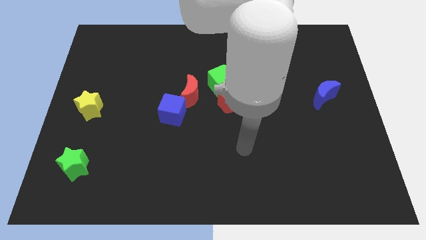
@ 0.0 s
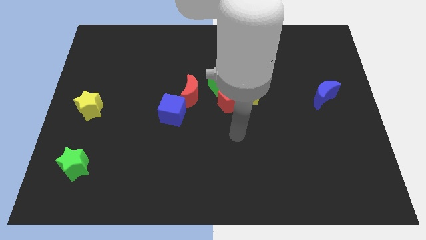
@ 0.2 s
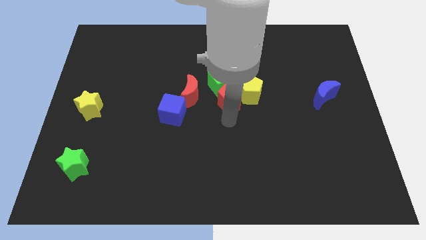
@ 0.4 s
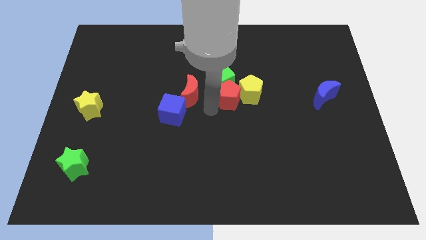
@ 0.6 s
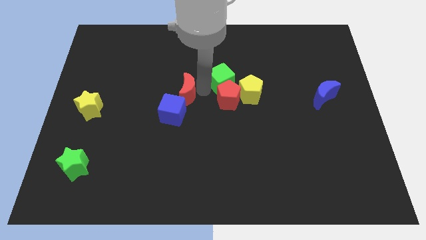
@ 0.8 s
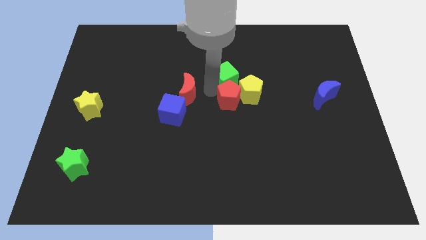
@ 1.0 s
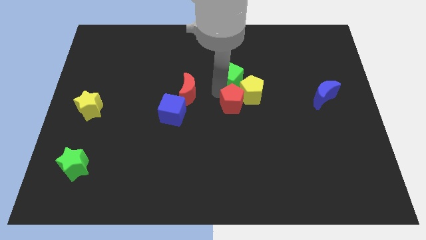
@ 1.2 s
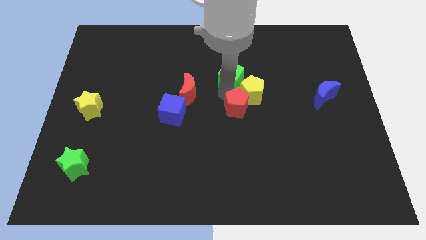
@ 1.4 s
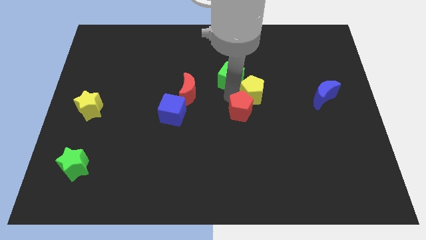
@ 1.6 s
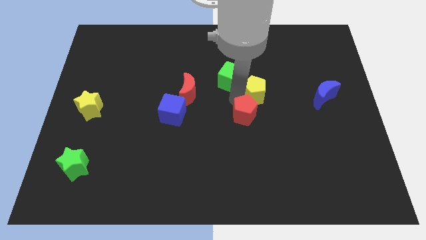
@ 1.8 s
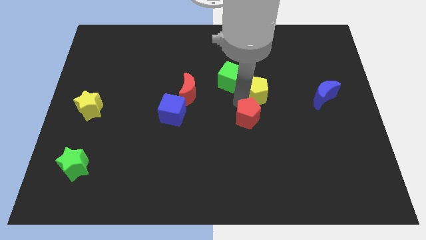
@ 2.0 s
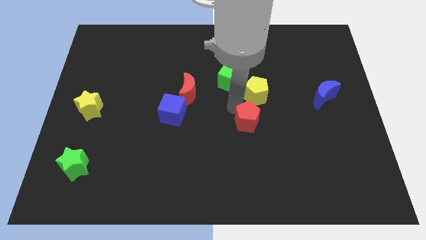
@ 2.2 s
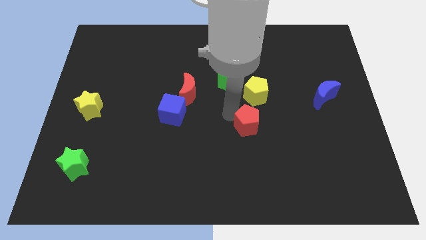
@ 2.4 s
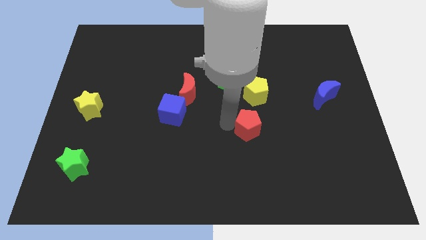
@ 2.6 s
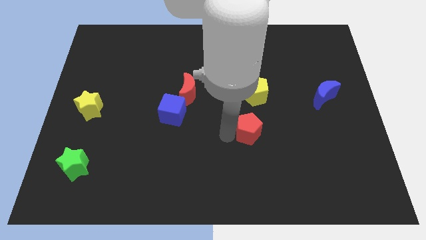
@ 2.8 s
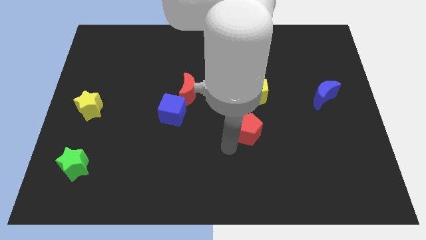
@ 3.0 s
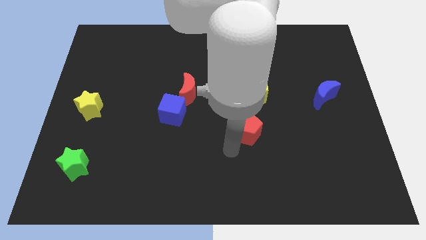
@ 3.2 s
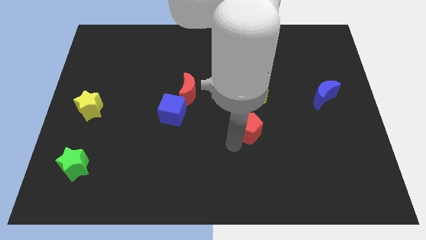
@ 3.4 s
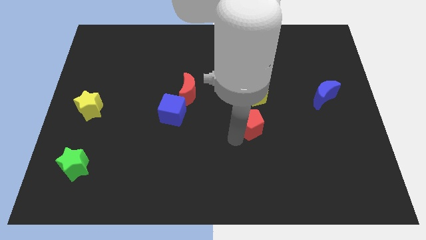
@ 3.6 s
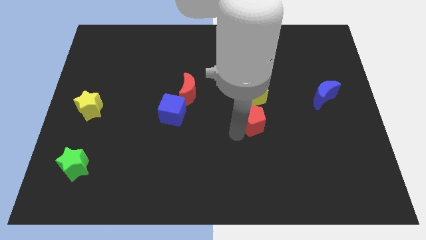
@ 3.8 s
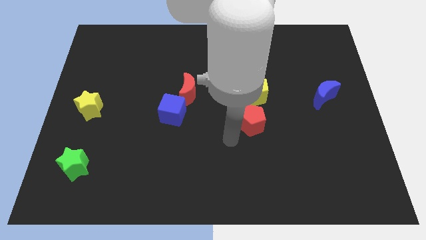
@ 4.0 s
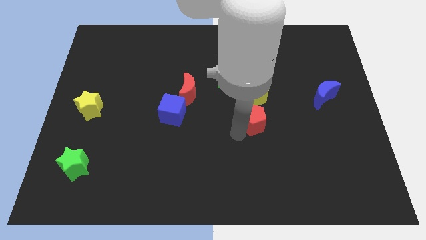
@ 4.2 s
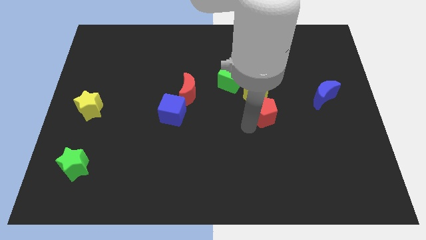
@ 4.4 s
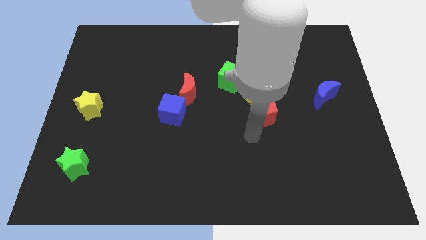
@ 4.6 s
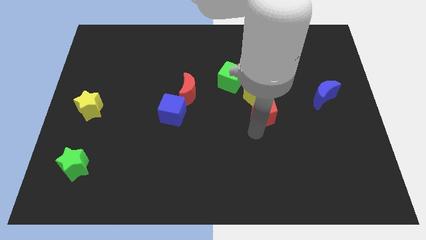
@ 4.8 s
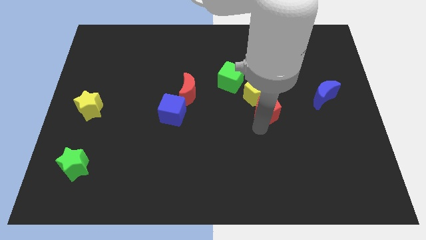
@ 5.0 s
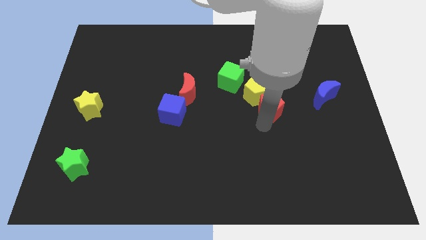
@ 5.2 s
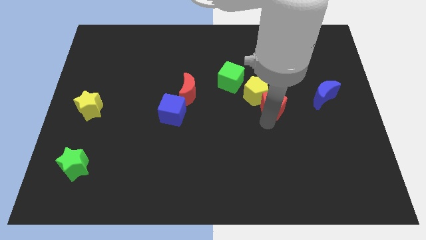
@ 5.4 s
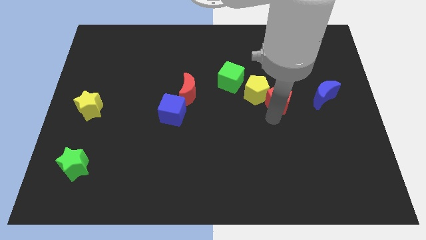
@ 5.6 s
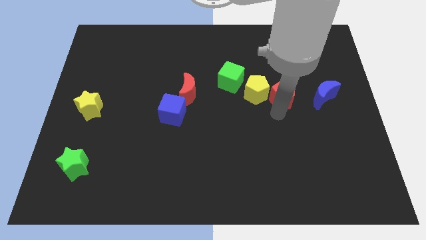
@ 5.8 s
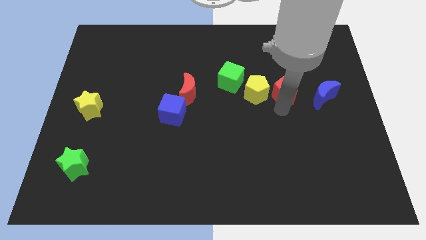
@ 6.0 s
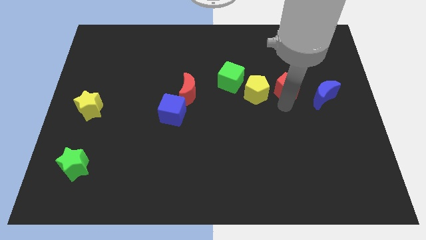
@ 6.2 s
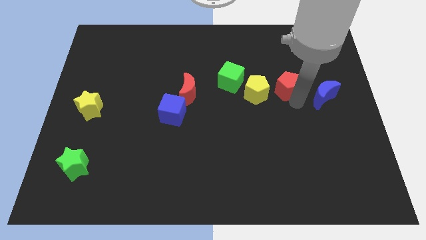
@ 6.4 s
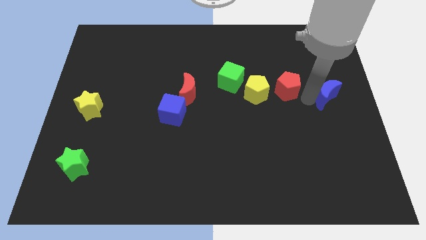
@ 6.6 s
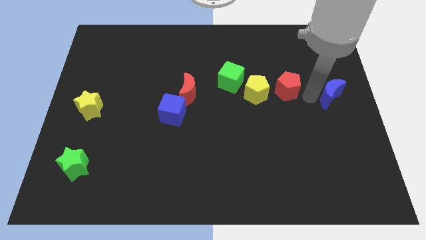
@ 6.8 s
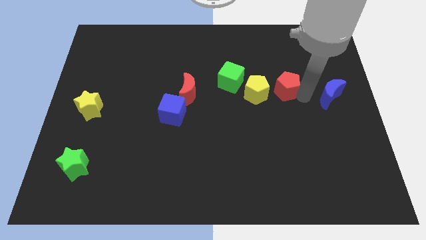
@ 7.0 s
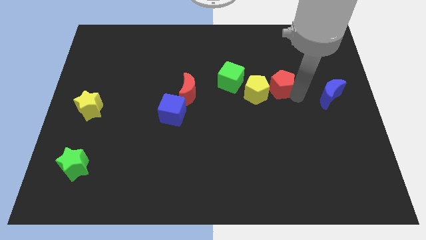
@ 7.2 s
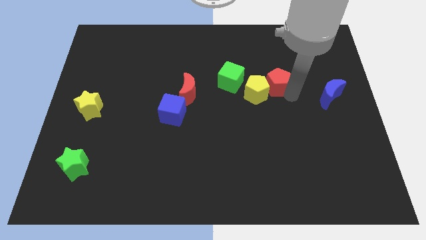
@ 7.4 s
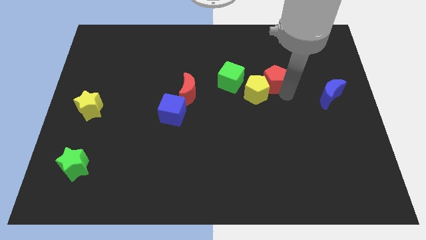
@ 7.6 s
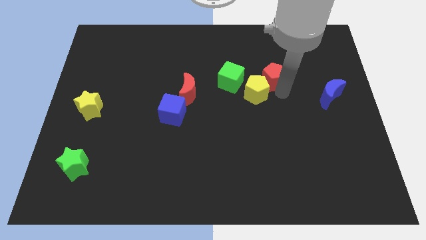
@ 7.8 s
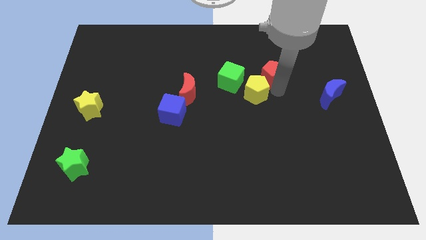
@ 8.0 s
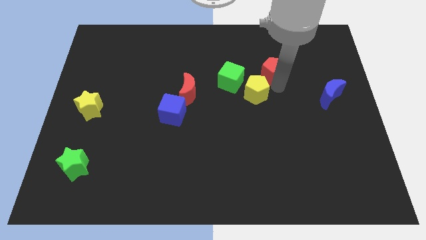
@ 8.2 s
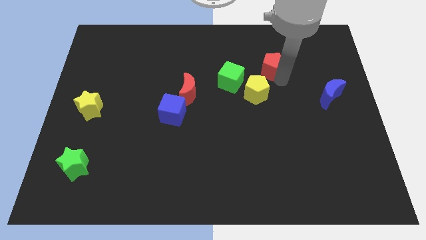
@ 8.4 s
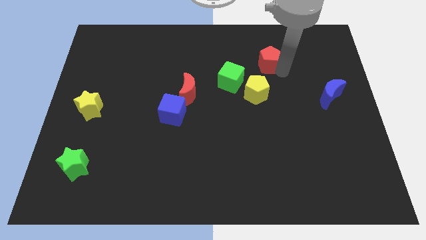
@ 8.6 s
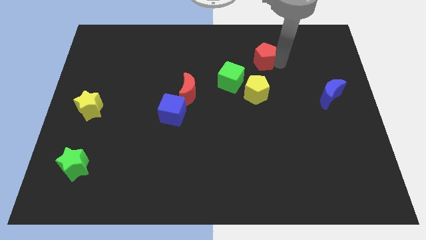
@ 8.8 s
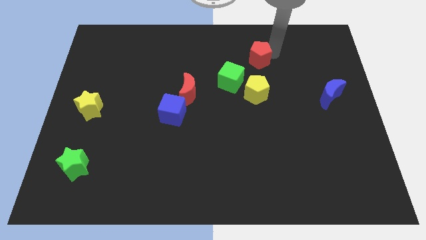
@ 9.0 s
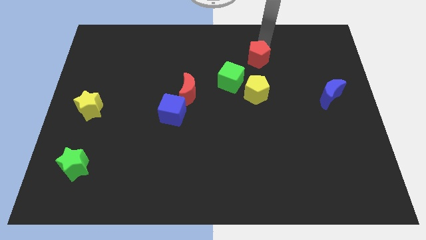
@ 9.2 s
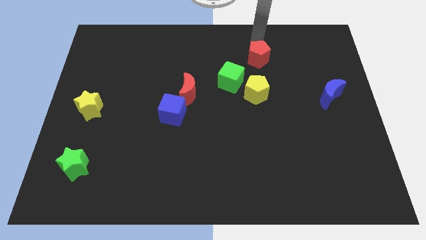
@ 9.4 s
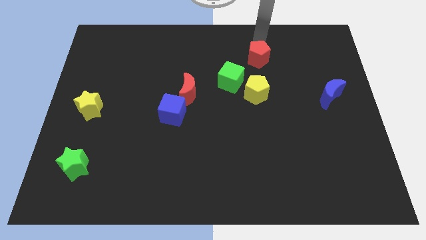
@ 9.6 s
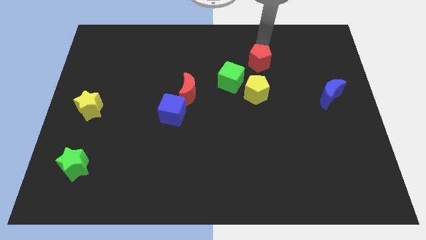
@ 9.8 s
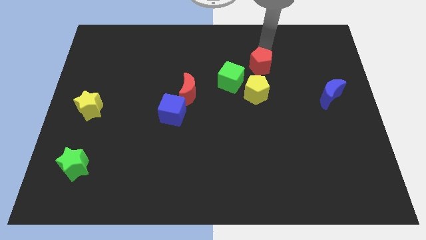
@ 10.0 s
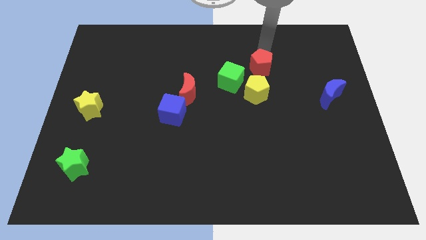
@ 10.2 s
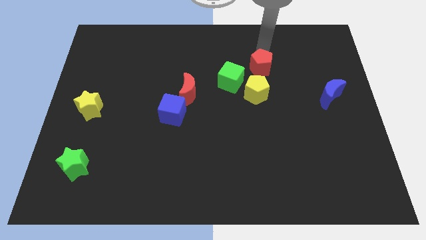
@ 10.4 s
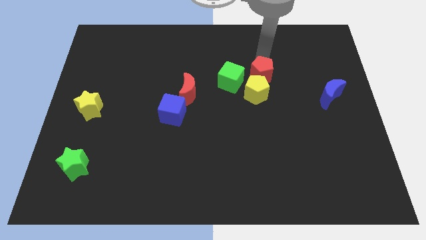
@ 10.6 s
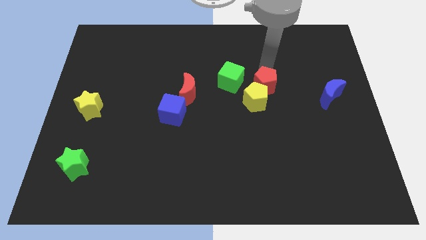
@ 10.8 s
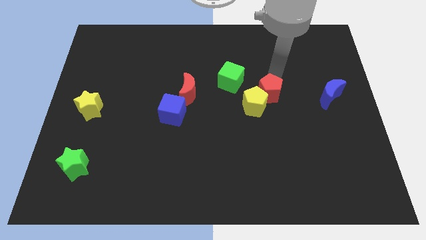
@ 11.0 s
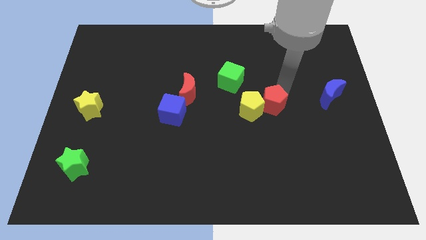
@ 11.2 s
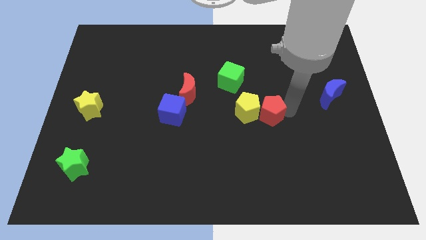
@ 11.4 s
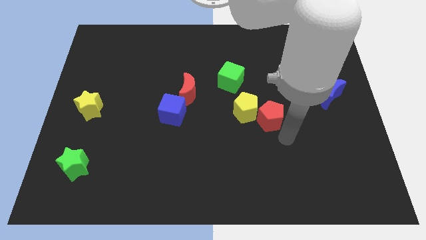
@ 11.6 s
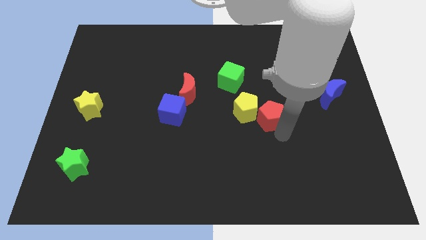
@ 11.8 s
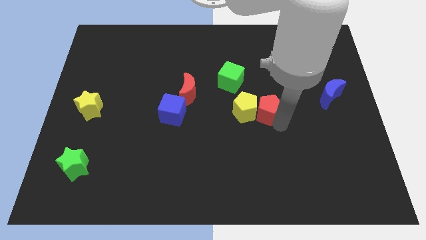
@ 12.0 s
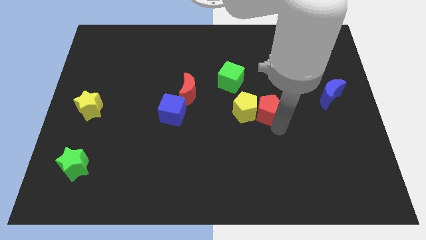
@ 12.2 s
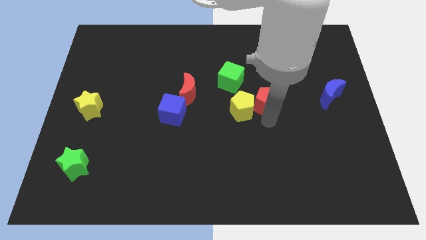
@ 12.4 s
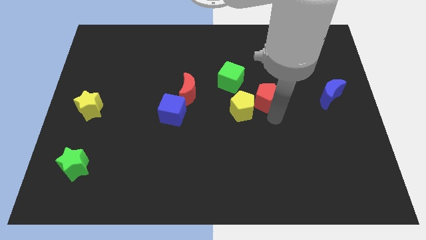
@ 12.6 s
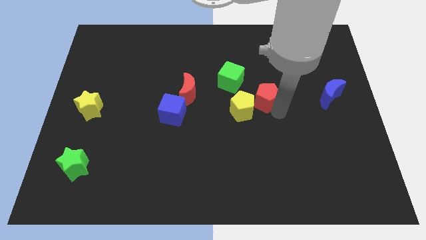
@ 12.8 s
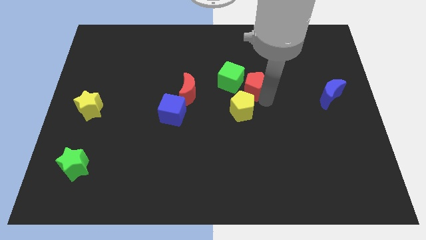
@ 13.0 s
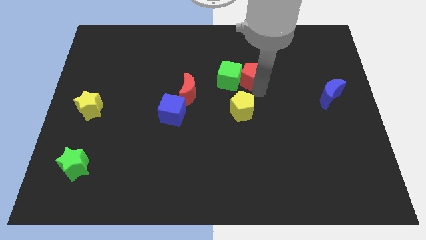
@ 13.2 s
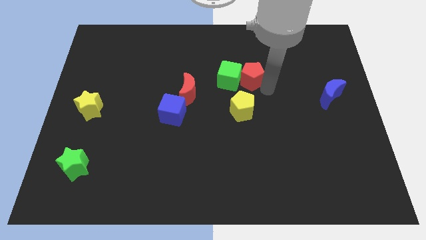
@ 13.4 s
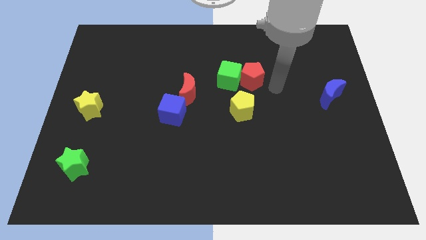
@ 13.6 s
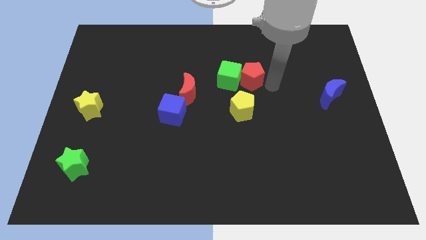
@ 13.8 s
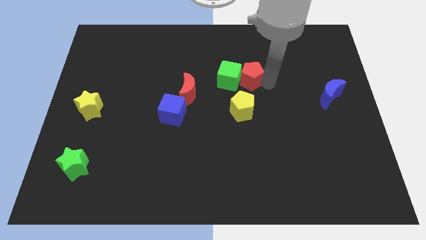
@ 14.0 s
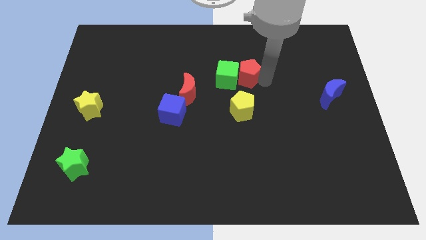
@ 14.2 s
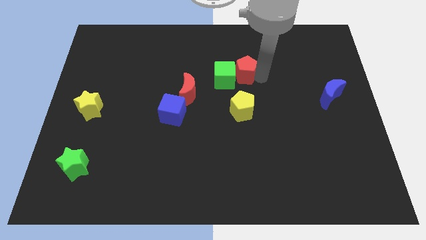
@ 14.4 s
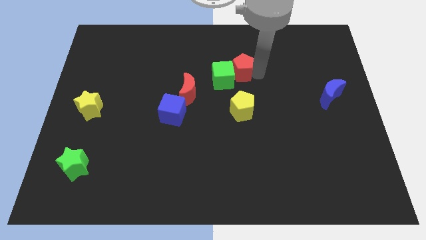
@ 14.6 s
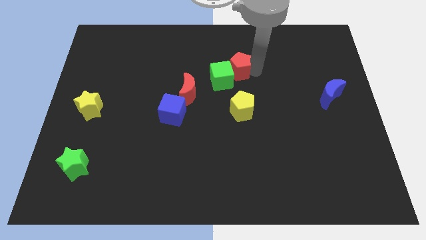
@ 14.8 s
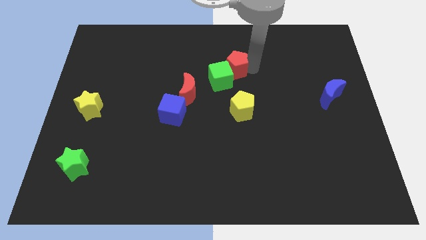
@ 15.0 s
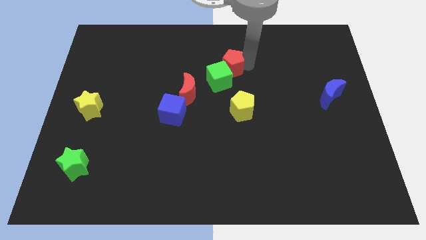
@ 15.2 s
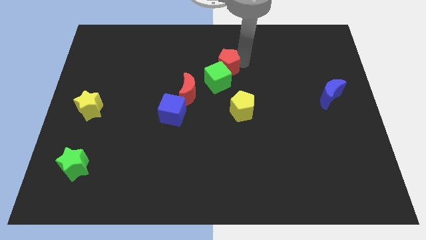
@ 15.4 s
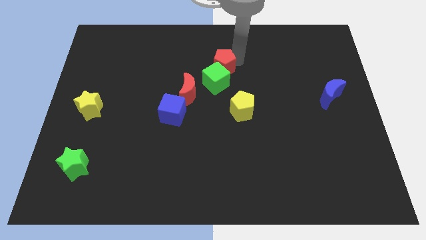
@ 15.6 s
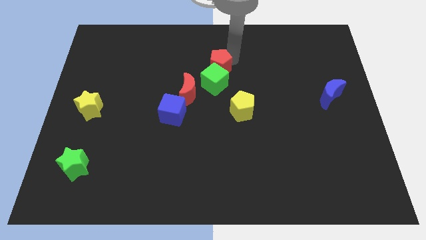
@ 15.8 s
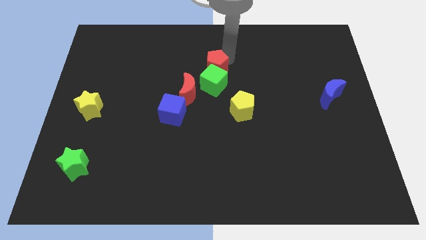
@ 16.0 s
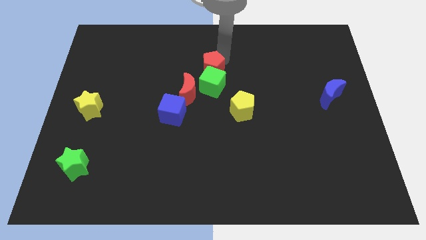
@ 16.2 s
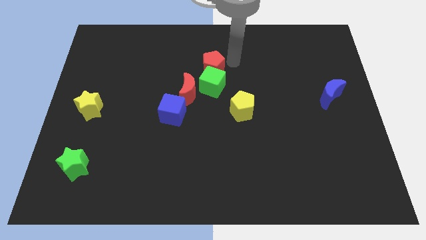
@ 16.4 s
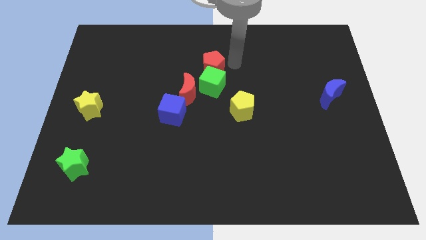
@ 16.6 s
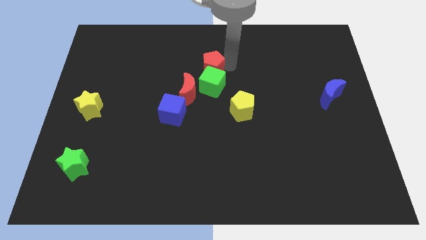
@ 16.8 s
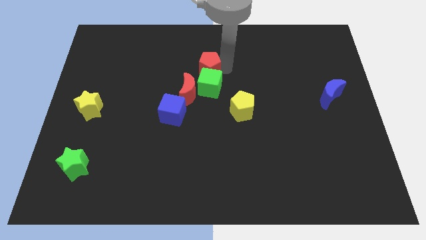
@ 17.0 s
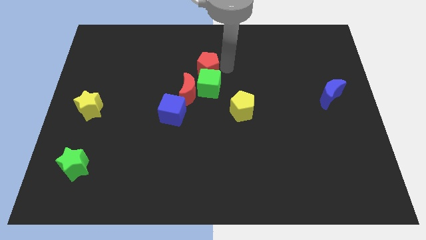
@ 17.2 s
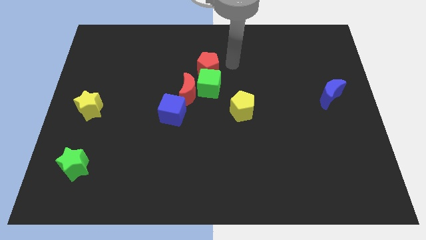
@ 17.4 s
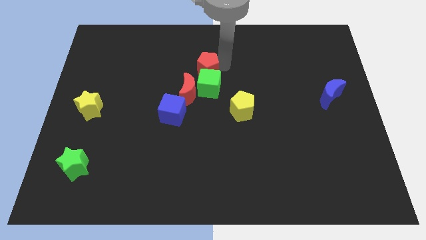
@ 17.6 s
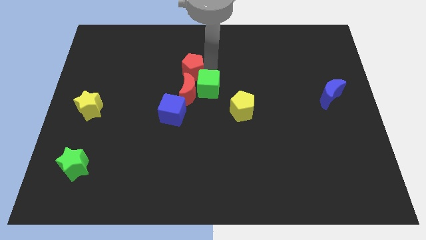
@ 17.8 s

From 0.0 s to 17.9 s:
slide the red pentagon above the blue cube
